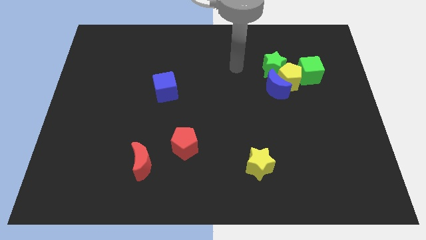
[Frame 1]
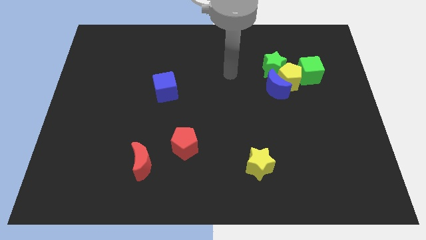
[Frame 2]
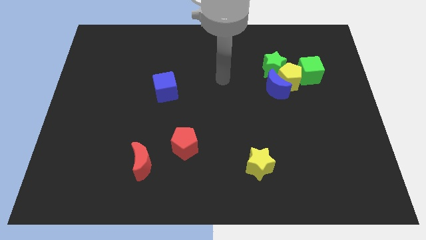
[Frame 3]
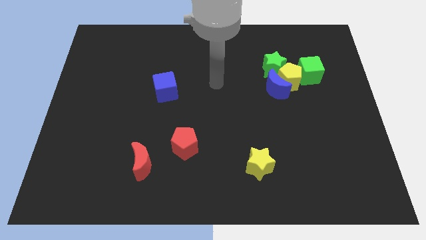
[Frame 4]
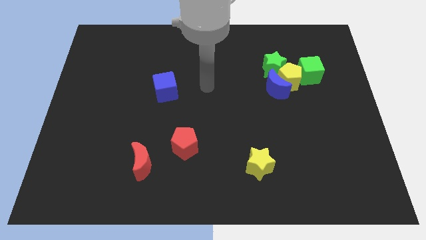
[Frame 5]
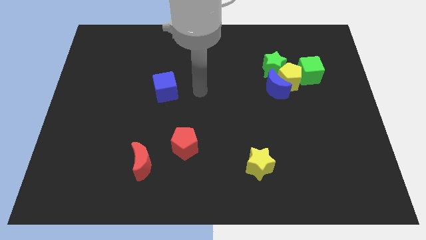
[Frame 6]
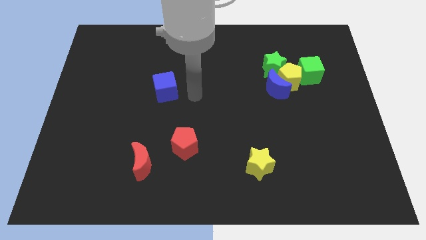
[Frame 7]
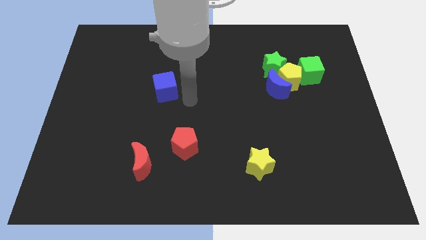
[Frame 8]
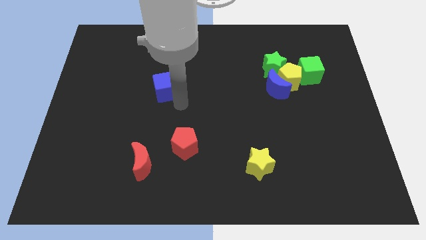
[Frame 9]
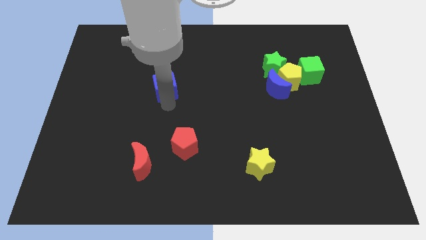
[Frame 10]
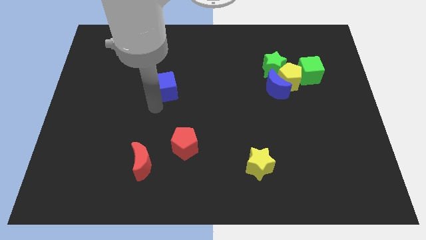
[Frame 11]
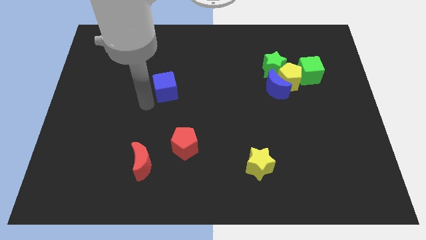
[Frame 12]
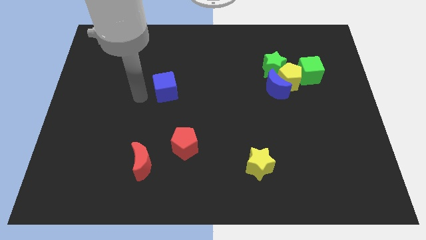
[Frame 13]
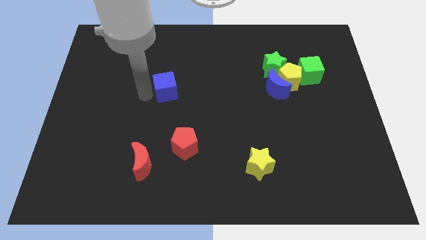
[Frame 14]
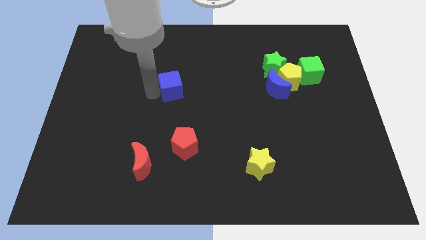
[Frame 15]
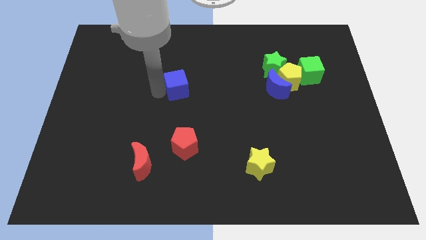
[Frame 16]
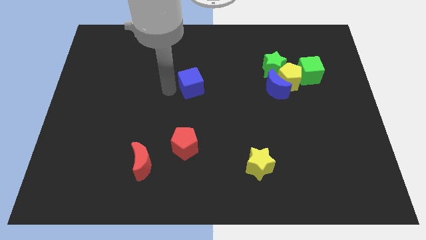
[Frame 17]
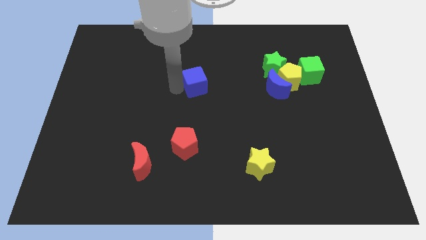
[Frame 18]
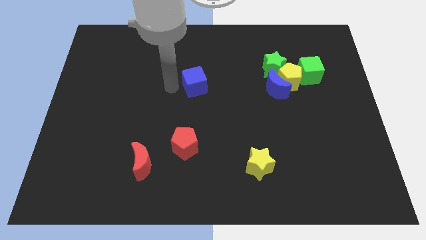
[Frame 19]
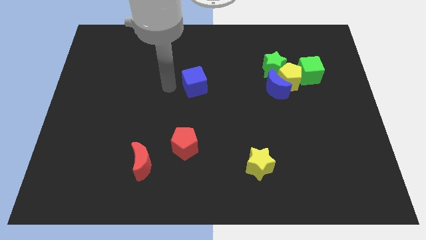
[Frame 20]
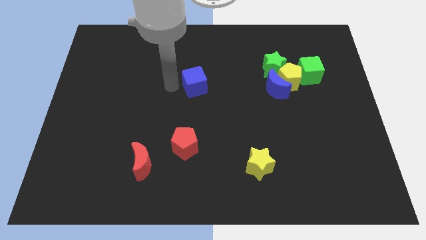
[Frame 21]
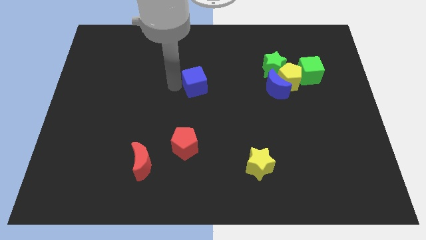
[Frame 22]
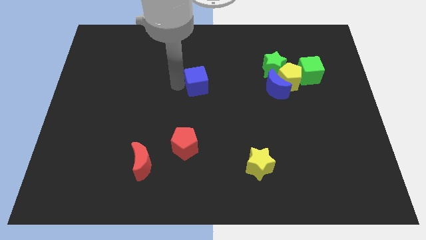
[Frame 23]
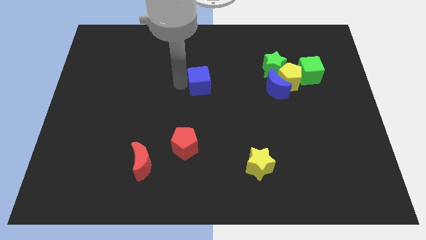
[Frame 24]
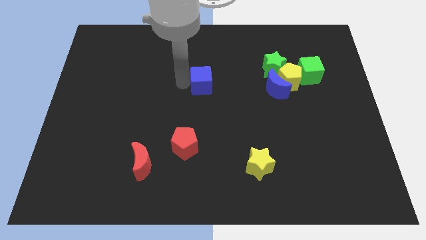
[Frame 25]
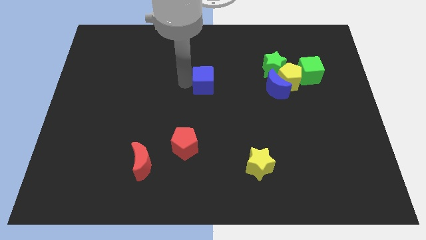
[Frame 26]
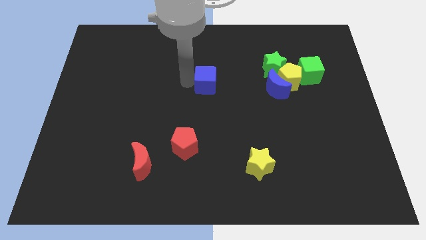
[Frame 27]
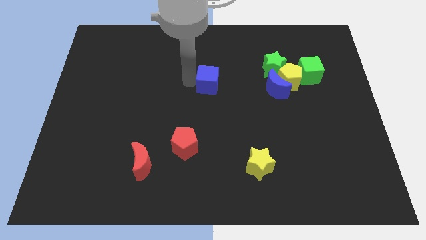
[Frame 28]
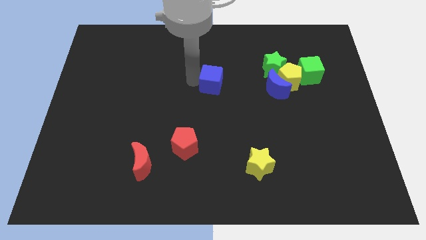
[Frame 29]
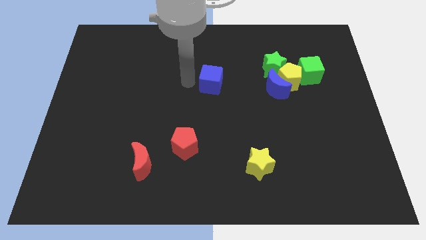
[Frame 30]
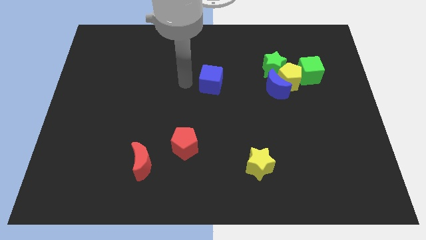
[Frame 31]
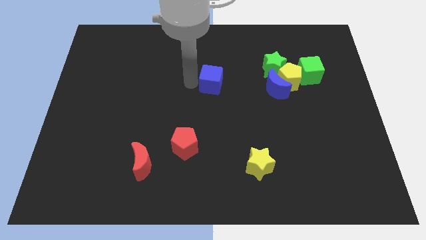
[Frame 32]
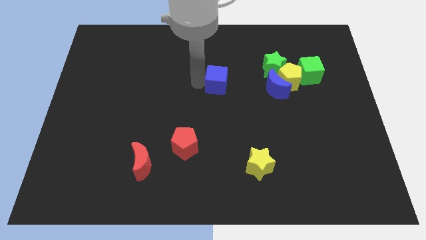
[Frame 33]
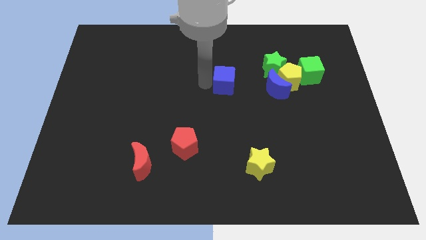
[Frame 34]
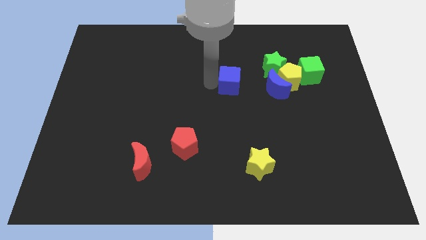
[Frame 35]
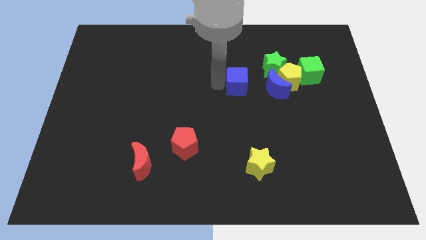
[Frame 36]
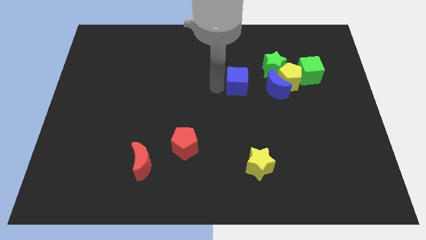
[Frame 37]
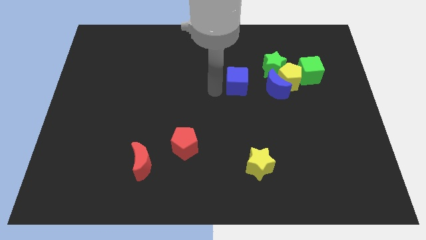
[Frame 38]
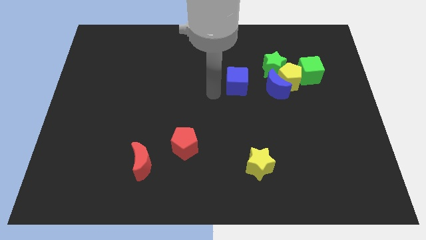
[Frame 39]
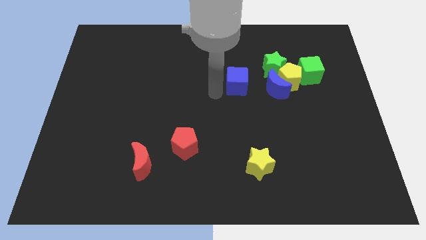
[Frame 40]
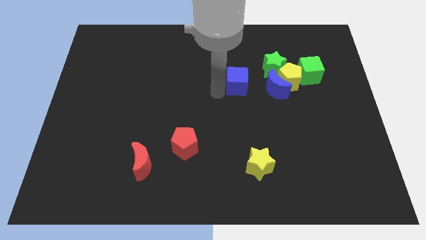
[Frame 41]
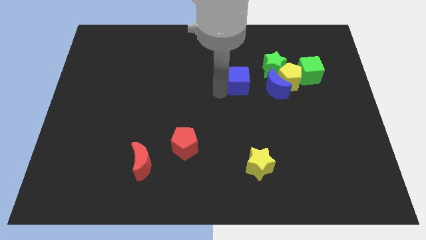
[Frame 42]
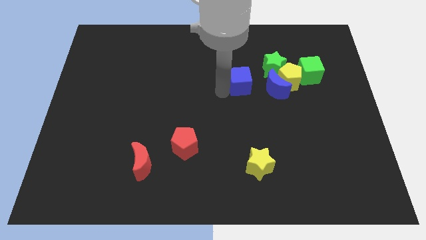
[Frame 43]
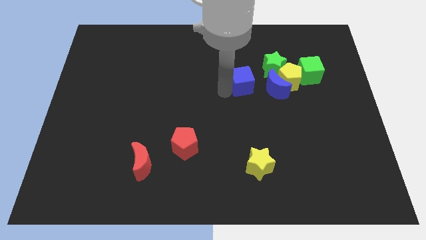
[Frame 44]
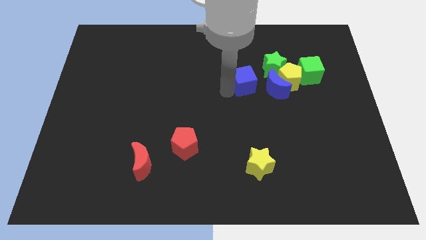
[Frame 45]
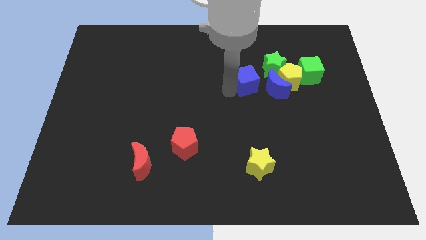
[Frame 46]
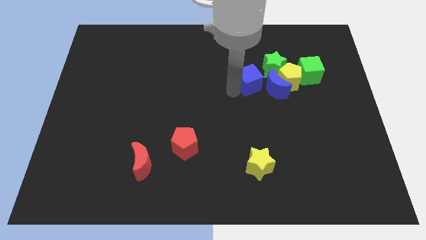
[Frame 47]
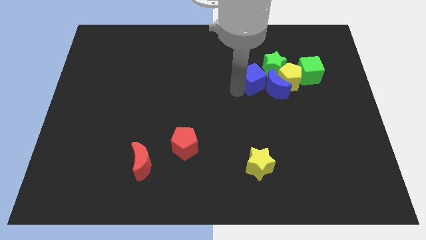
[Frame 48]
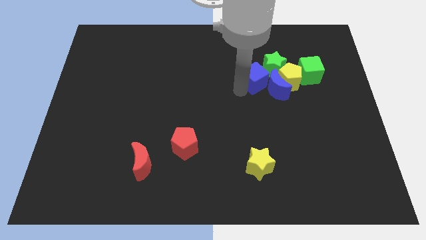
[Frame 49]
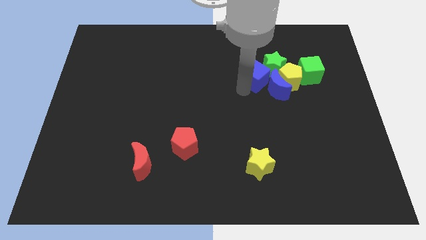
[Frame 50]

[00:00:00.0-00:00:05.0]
put the blue cube towards the green star

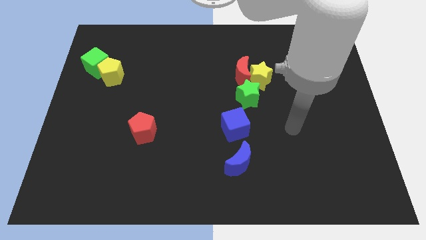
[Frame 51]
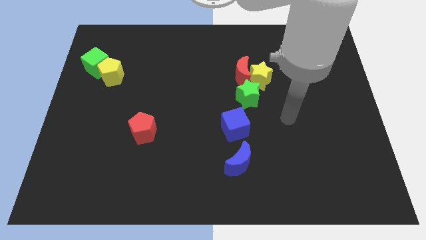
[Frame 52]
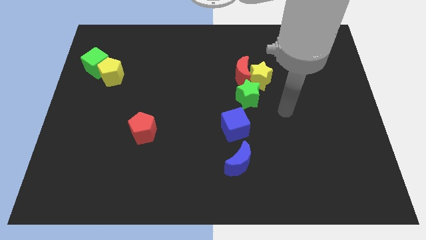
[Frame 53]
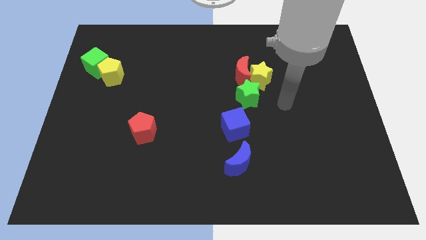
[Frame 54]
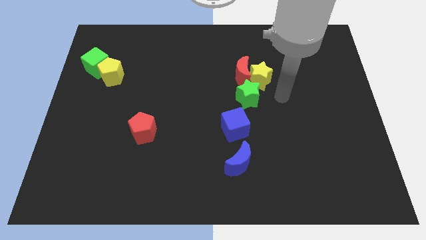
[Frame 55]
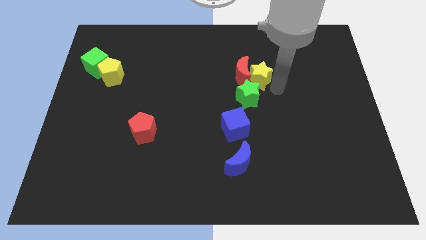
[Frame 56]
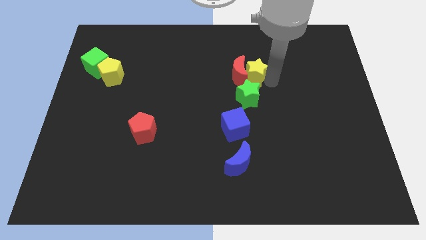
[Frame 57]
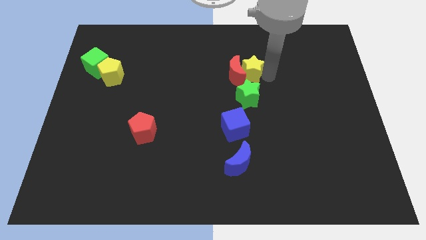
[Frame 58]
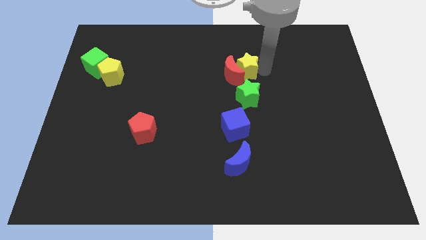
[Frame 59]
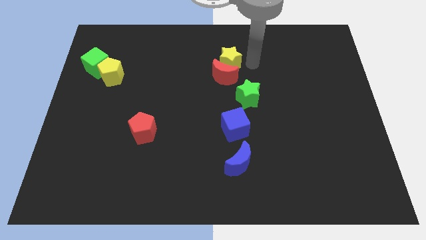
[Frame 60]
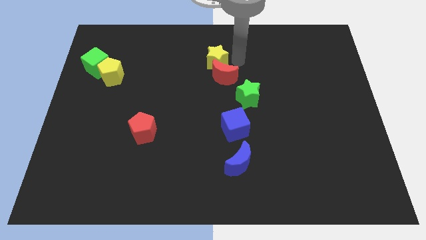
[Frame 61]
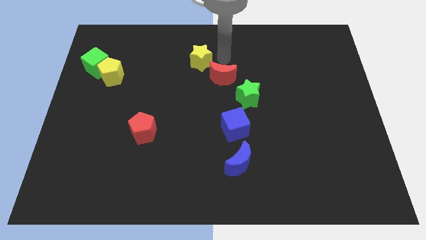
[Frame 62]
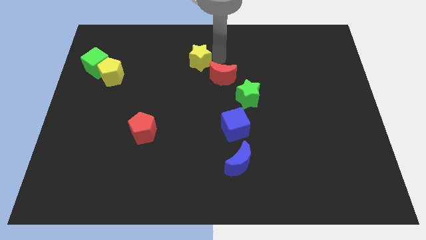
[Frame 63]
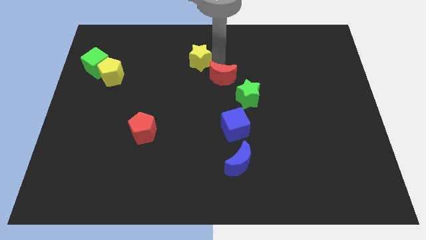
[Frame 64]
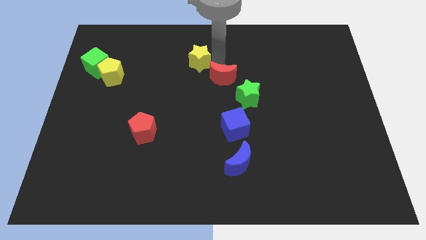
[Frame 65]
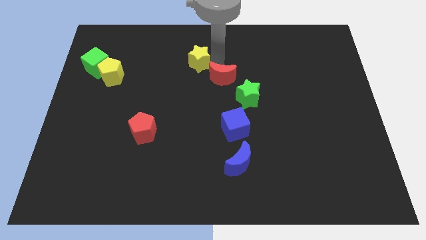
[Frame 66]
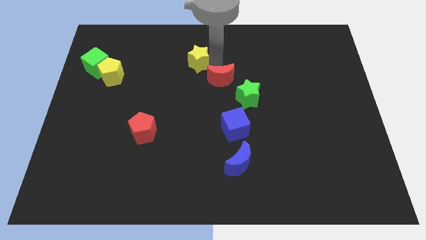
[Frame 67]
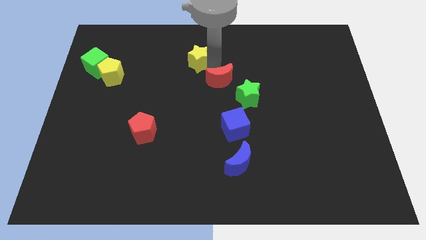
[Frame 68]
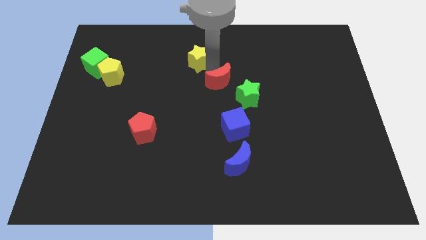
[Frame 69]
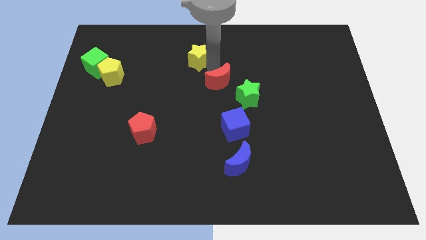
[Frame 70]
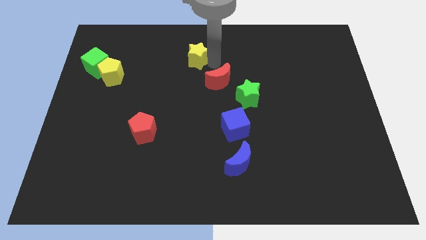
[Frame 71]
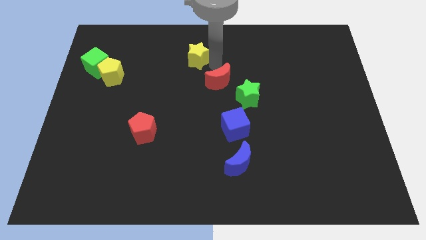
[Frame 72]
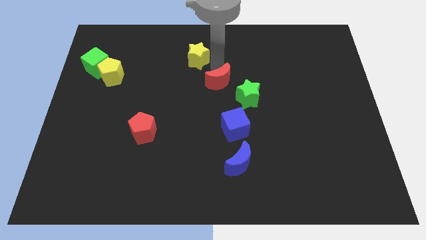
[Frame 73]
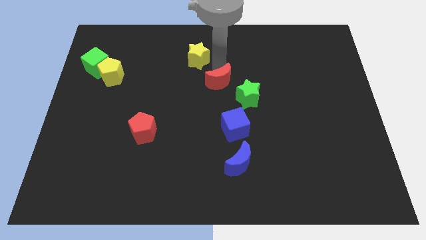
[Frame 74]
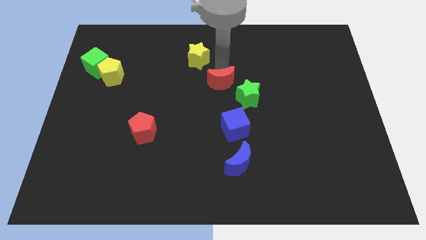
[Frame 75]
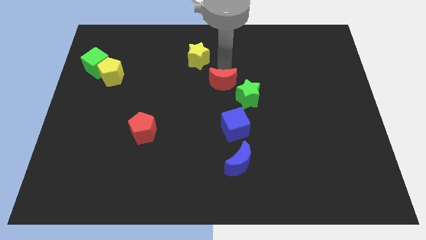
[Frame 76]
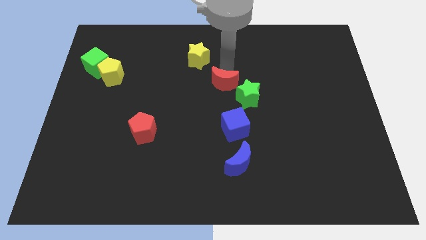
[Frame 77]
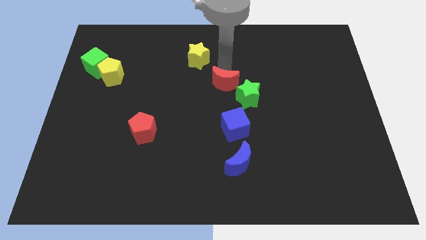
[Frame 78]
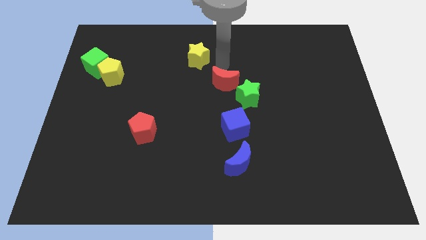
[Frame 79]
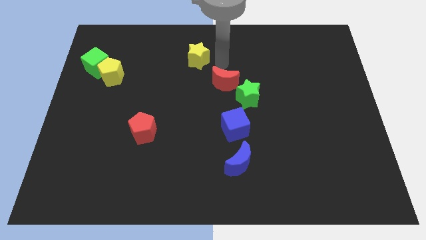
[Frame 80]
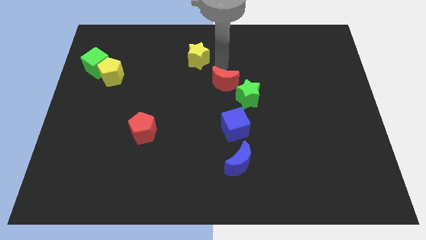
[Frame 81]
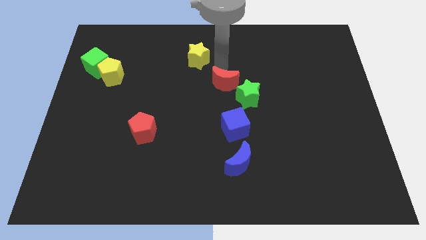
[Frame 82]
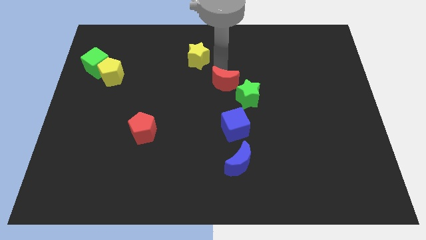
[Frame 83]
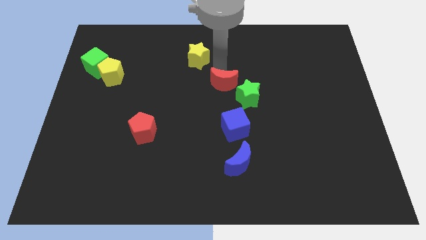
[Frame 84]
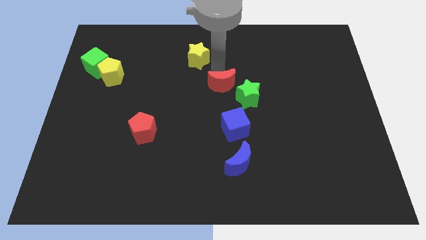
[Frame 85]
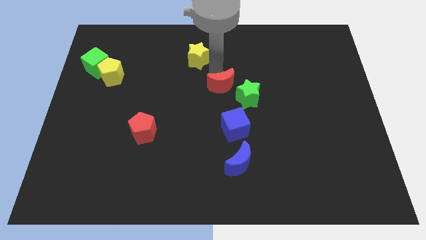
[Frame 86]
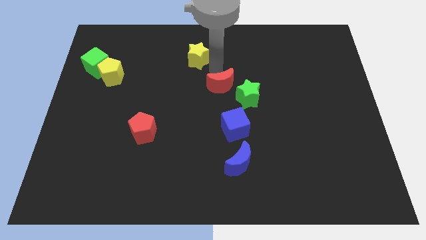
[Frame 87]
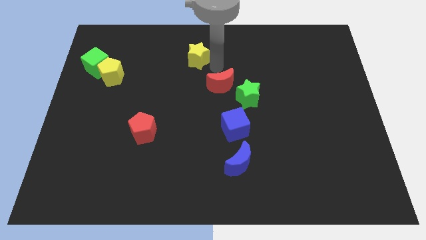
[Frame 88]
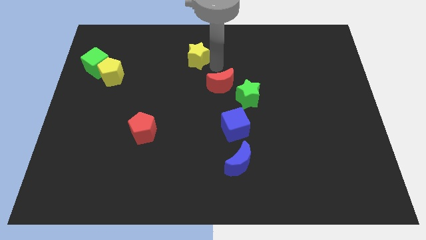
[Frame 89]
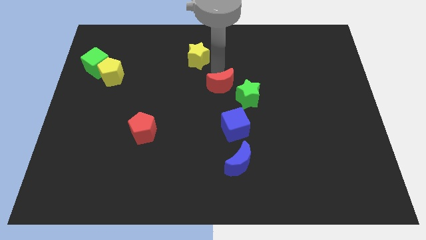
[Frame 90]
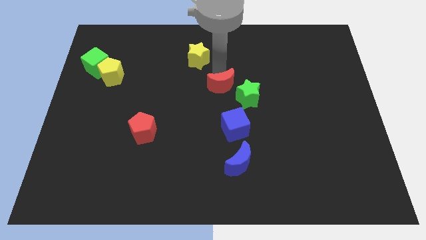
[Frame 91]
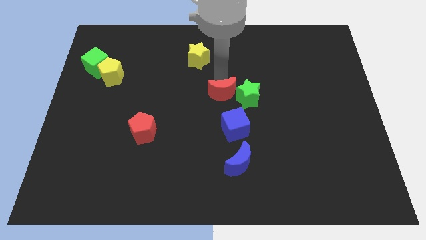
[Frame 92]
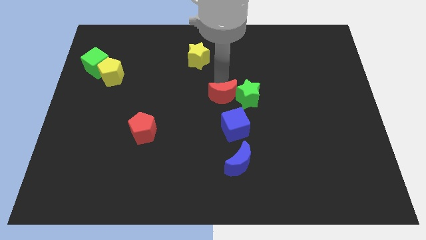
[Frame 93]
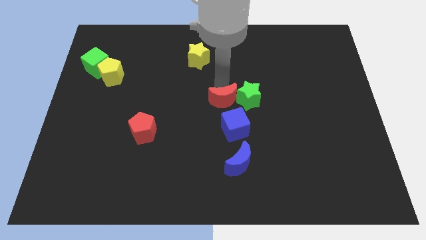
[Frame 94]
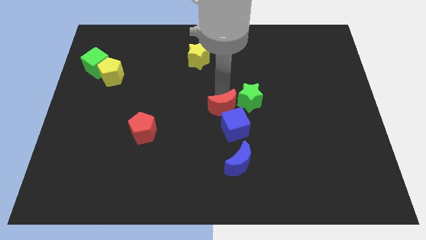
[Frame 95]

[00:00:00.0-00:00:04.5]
slide the red moon close to the blue cube
